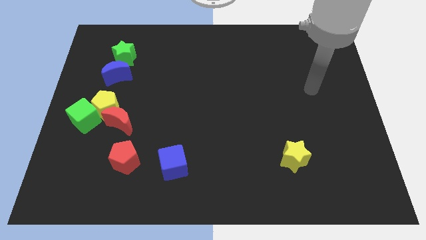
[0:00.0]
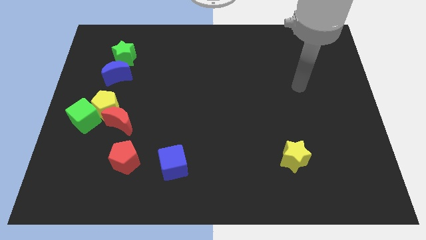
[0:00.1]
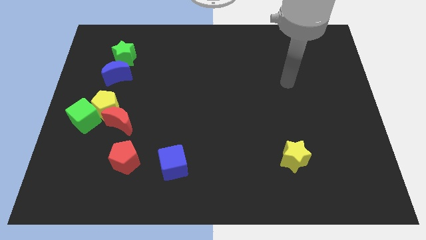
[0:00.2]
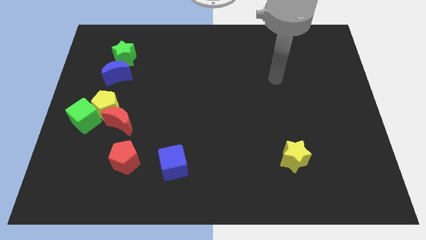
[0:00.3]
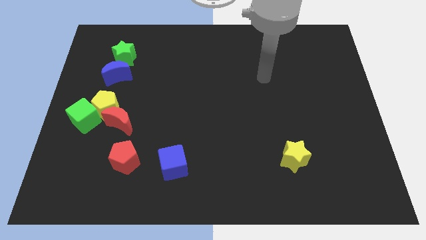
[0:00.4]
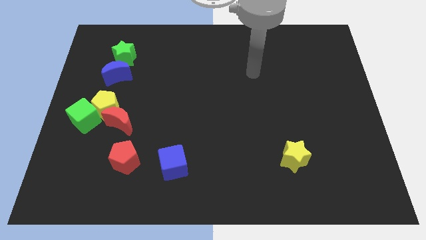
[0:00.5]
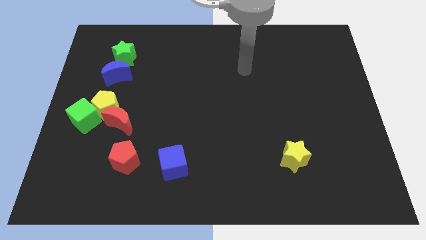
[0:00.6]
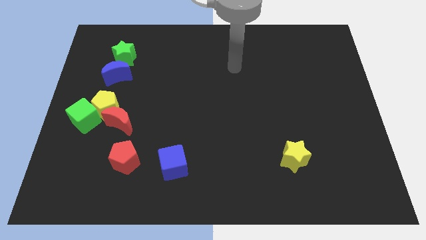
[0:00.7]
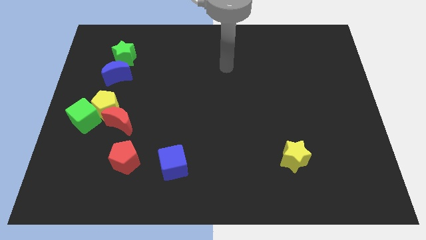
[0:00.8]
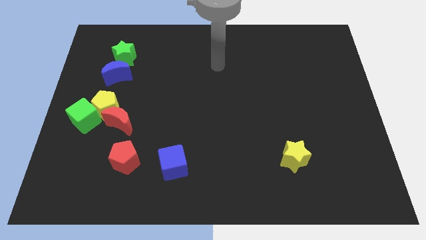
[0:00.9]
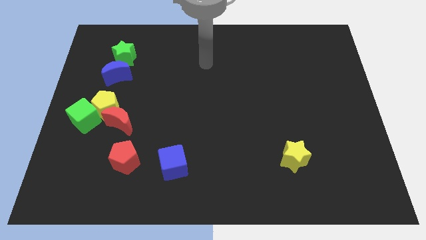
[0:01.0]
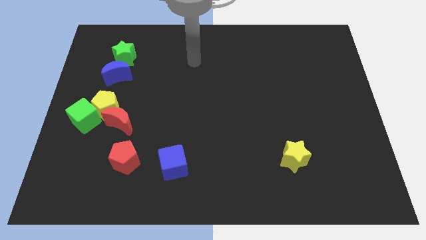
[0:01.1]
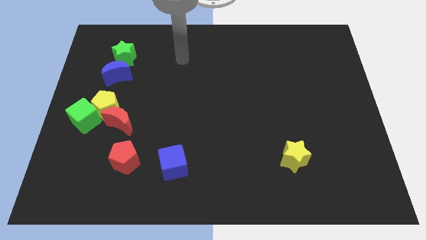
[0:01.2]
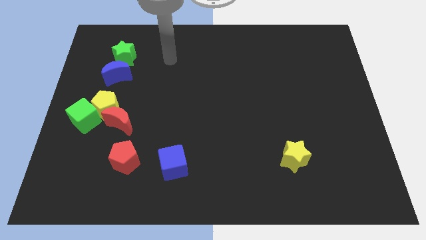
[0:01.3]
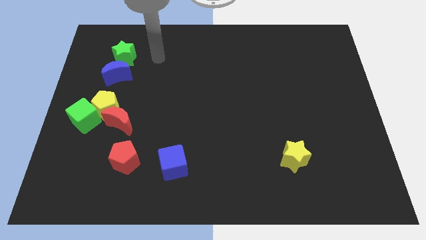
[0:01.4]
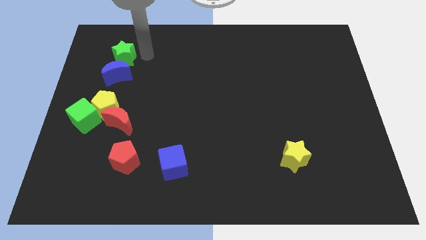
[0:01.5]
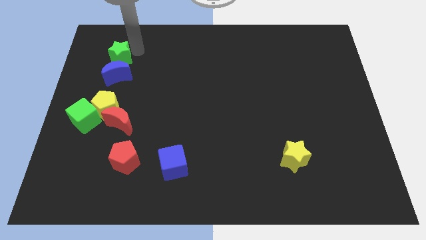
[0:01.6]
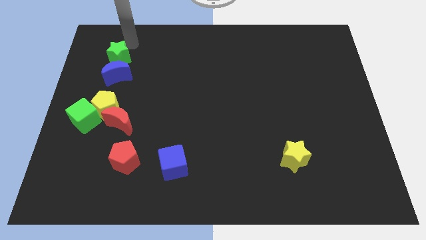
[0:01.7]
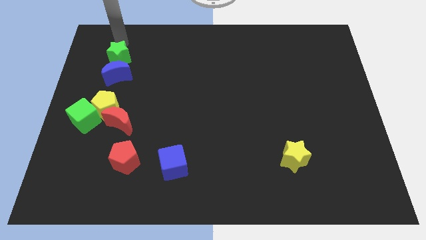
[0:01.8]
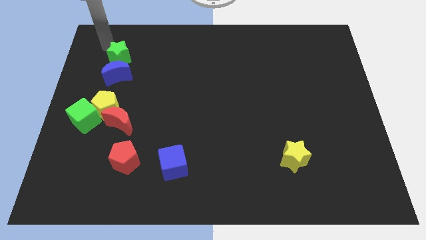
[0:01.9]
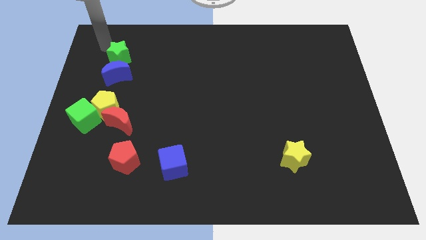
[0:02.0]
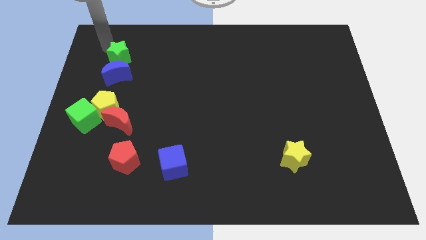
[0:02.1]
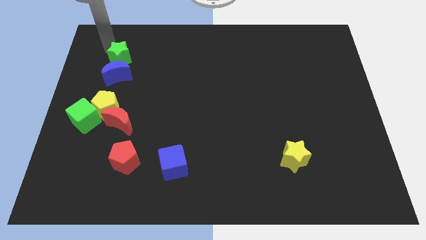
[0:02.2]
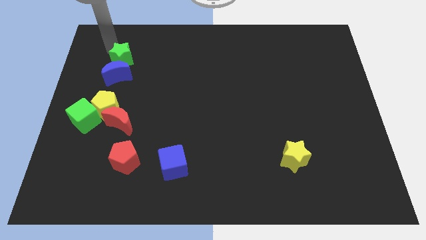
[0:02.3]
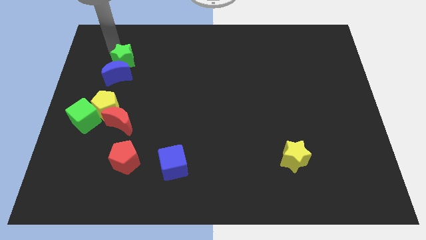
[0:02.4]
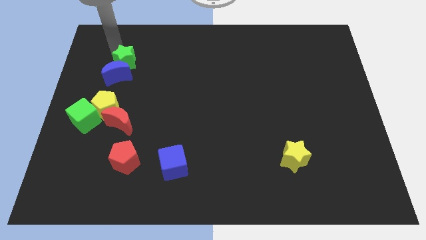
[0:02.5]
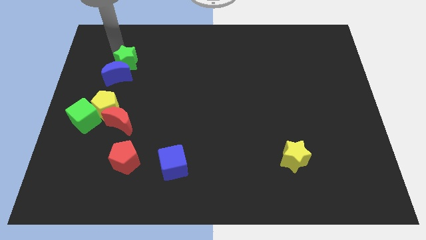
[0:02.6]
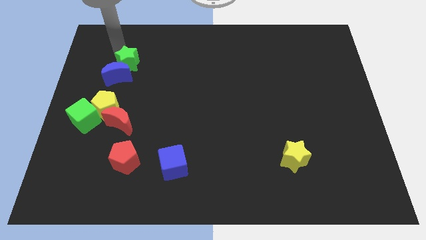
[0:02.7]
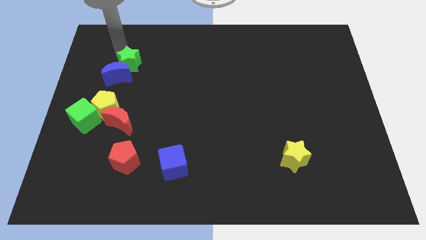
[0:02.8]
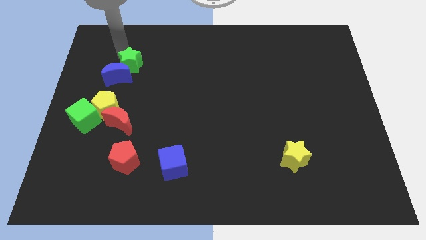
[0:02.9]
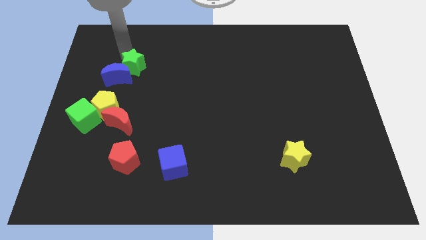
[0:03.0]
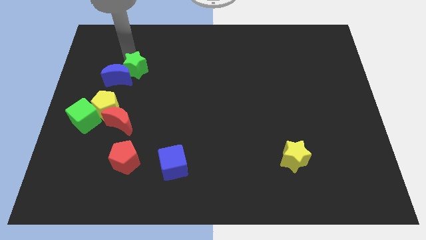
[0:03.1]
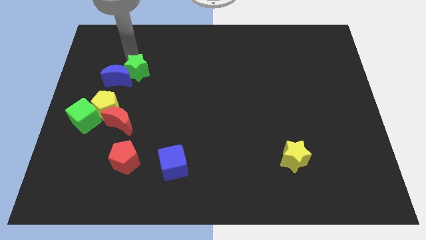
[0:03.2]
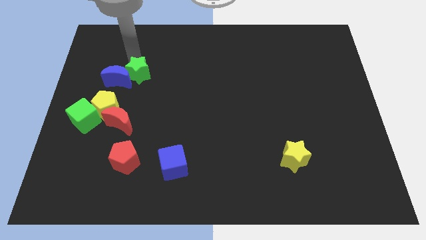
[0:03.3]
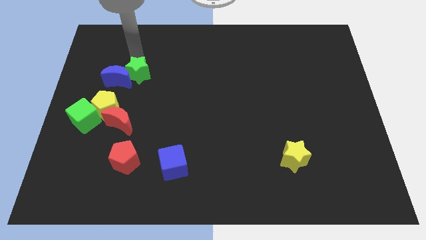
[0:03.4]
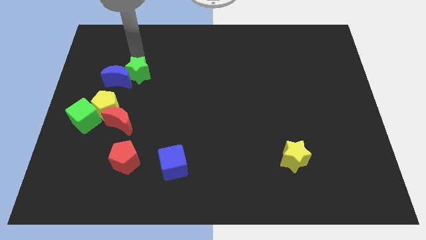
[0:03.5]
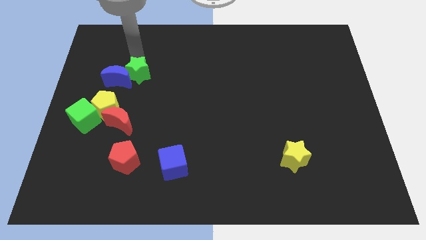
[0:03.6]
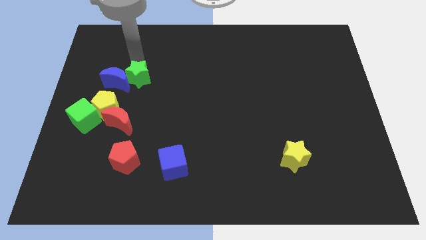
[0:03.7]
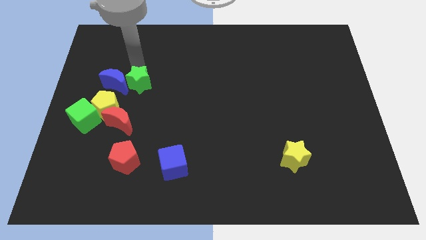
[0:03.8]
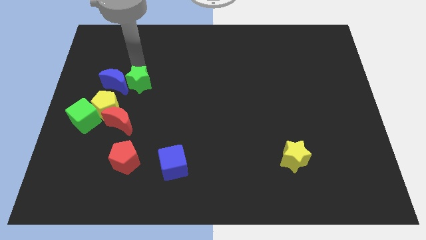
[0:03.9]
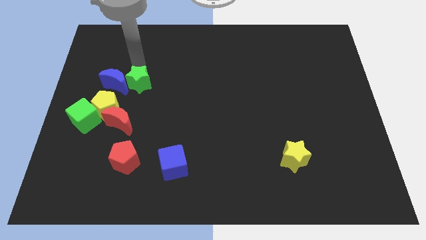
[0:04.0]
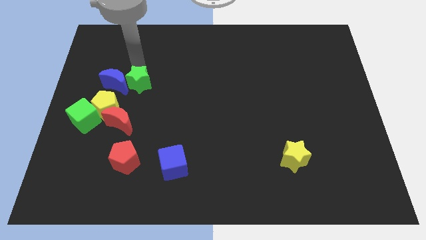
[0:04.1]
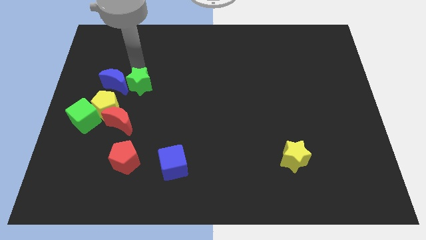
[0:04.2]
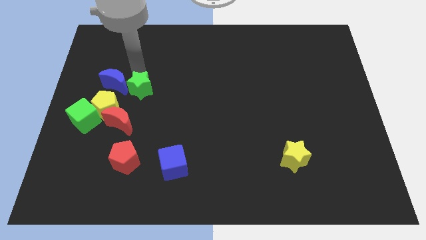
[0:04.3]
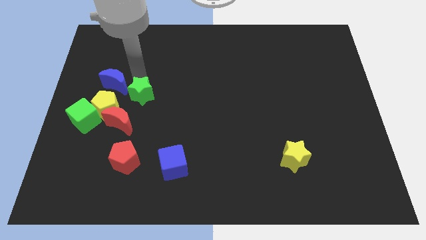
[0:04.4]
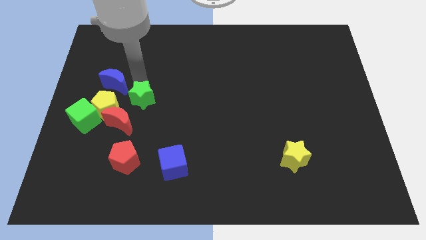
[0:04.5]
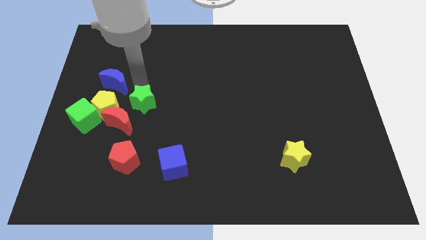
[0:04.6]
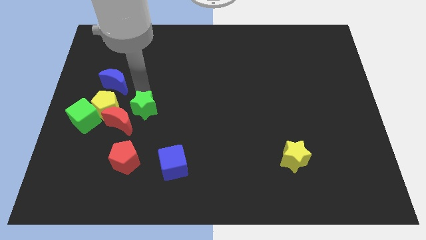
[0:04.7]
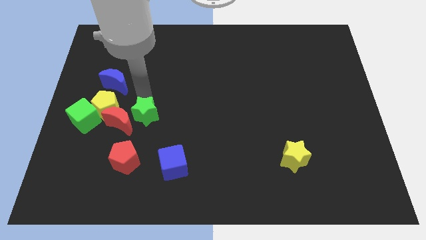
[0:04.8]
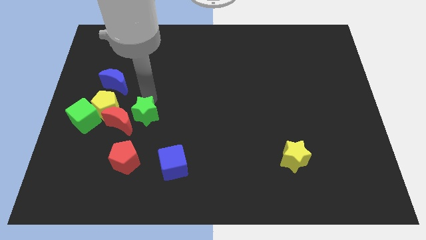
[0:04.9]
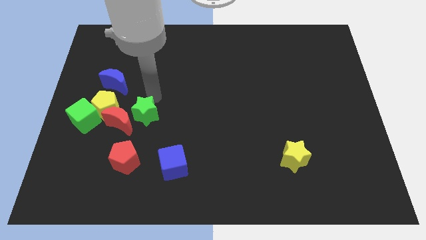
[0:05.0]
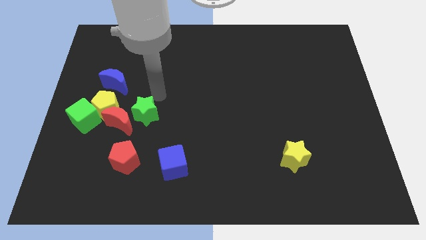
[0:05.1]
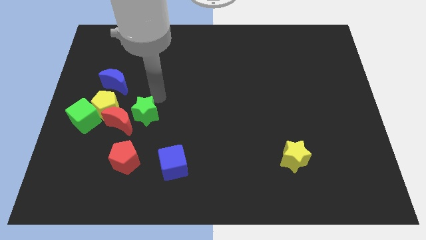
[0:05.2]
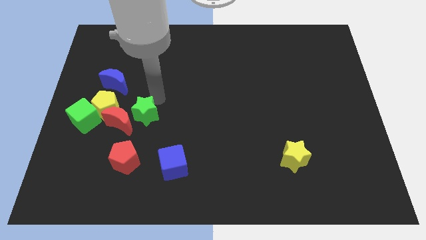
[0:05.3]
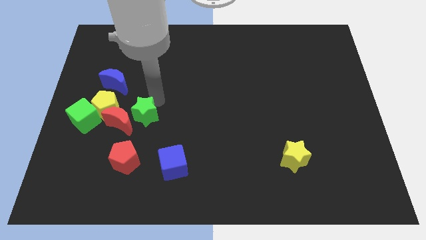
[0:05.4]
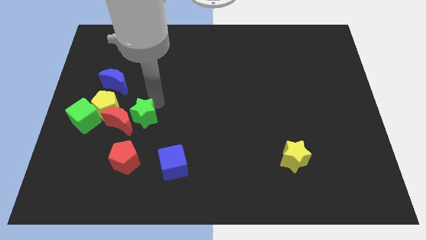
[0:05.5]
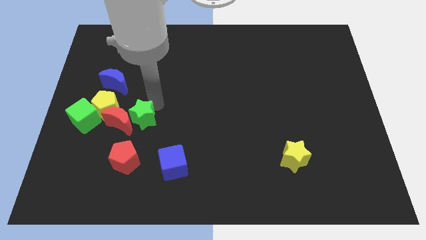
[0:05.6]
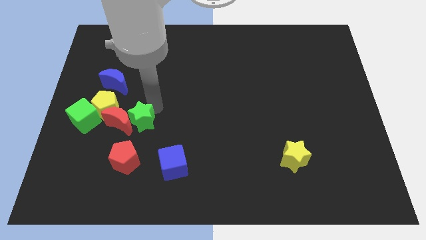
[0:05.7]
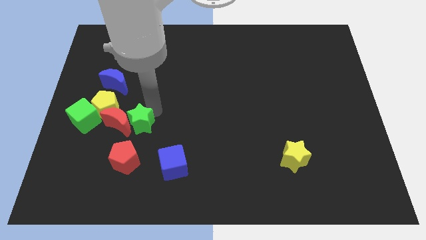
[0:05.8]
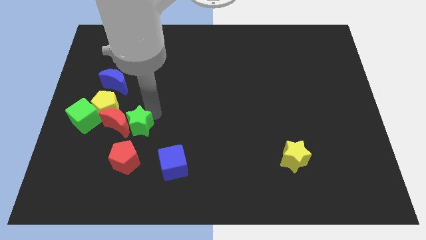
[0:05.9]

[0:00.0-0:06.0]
slide the green star downwards

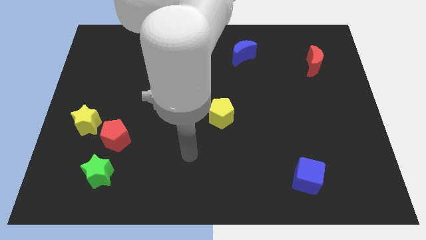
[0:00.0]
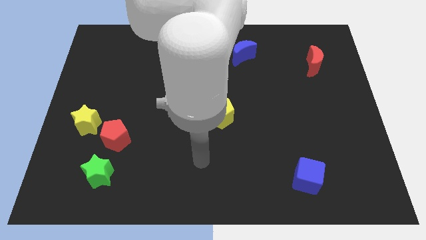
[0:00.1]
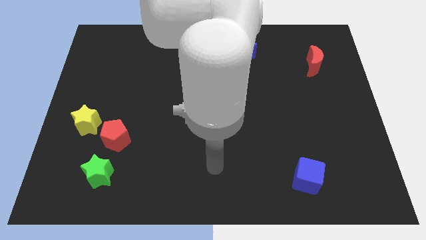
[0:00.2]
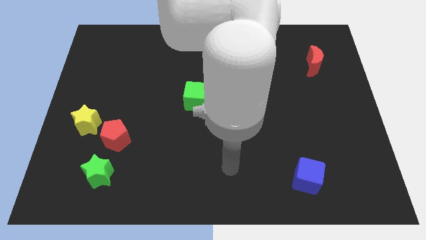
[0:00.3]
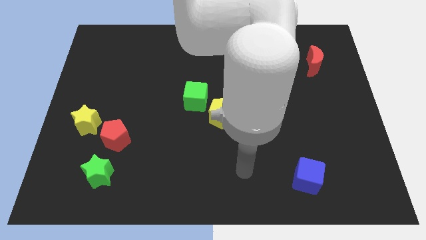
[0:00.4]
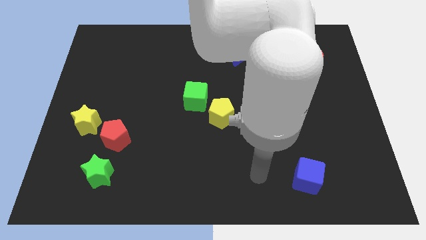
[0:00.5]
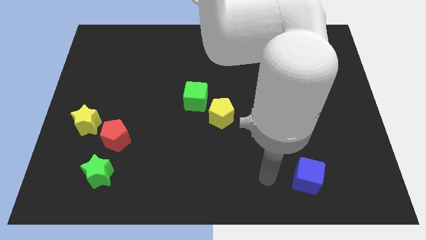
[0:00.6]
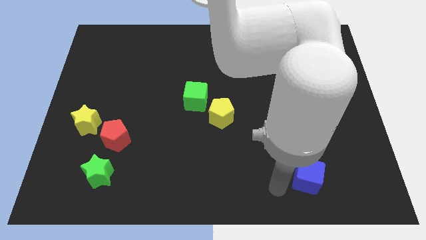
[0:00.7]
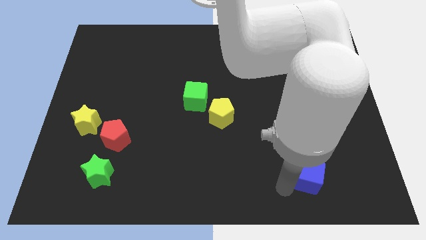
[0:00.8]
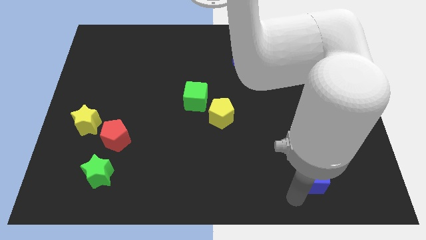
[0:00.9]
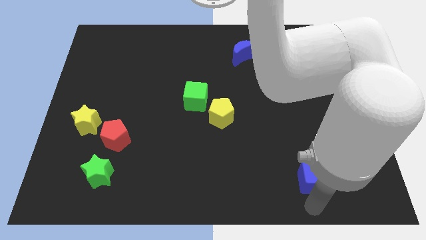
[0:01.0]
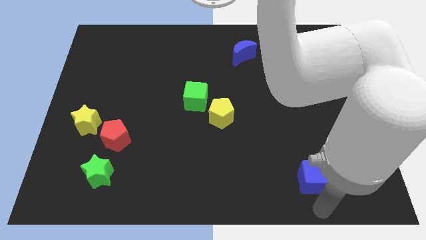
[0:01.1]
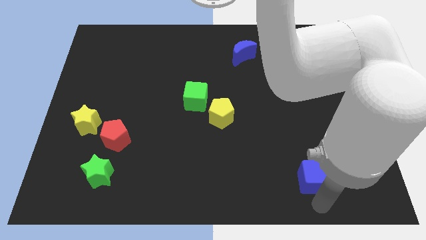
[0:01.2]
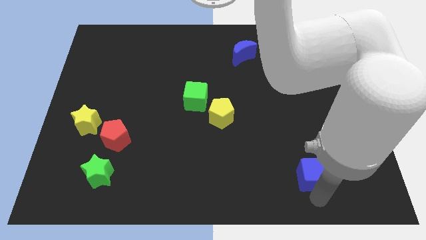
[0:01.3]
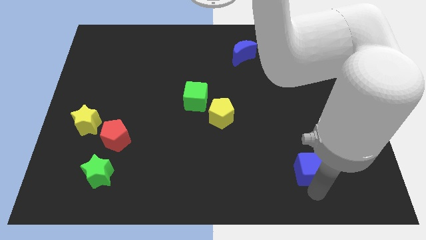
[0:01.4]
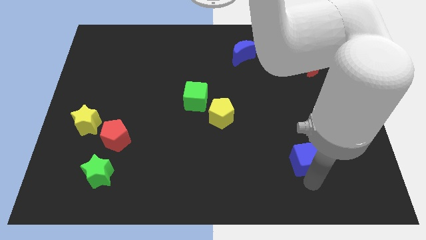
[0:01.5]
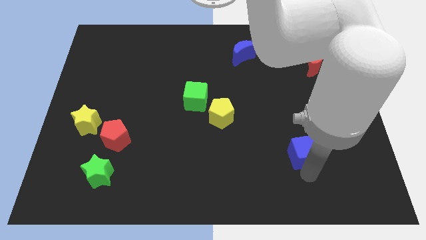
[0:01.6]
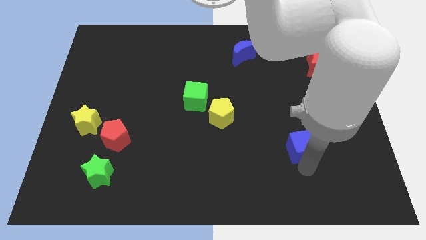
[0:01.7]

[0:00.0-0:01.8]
slide the blue cube a bit up

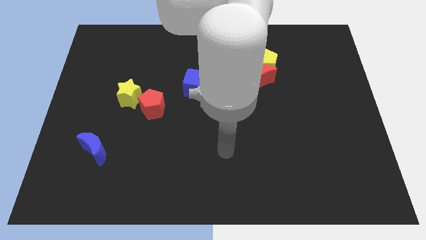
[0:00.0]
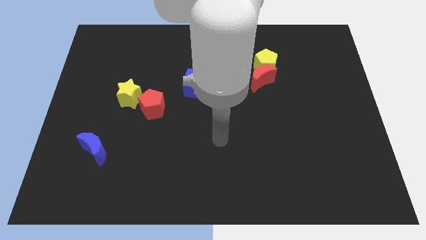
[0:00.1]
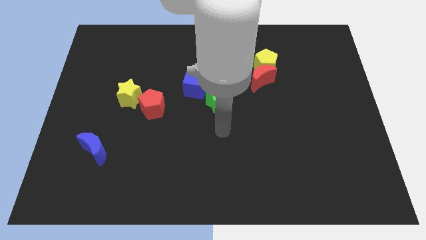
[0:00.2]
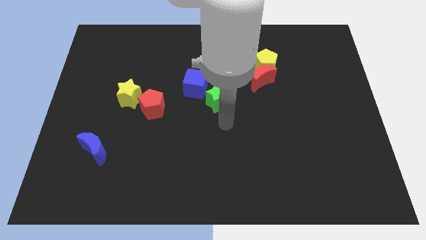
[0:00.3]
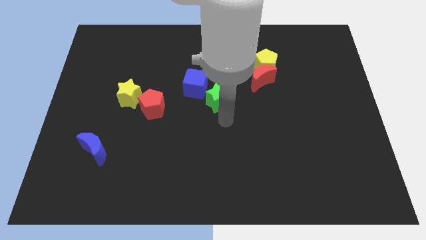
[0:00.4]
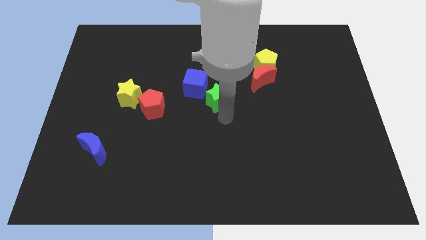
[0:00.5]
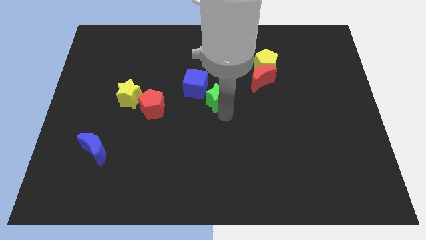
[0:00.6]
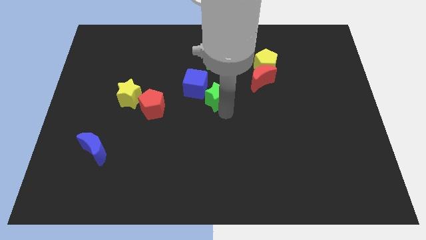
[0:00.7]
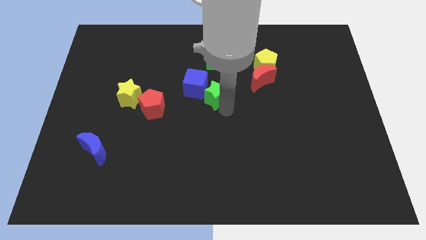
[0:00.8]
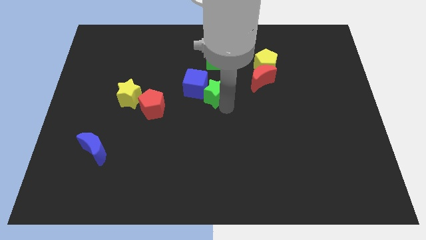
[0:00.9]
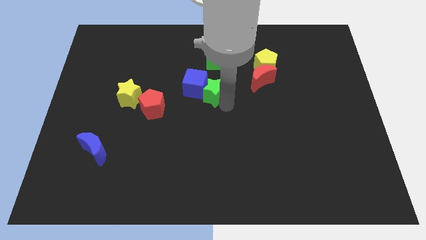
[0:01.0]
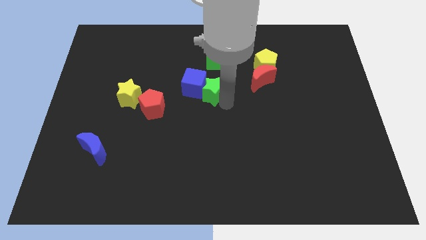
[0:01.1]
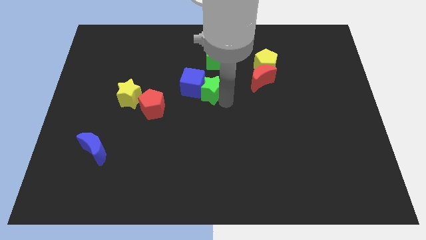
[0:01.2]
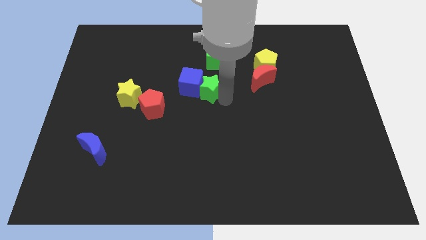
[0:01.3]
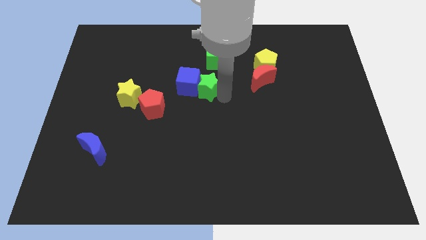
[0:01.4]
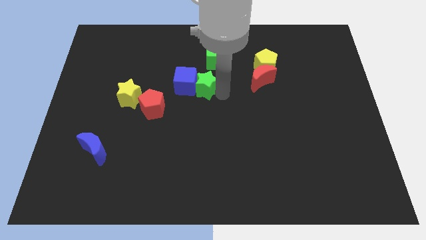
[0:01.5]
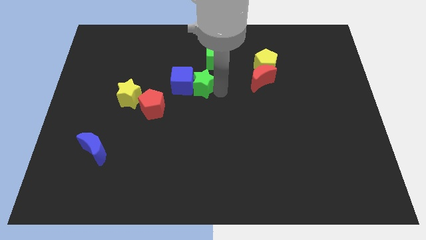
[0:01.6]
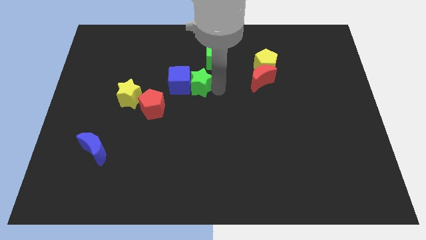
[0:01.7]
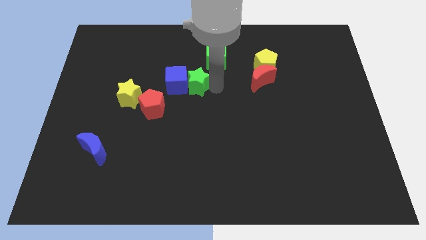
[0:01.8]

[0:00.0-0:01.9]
slide the green star up and then left a little
